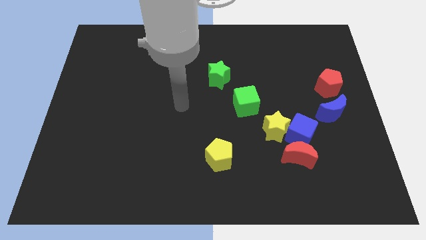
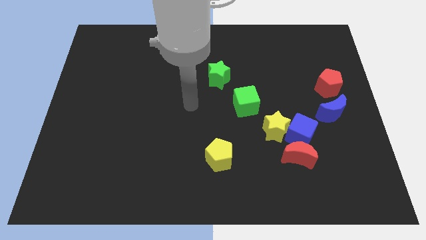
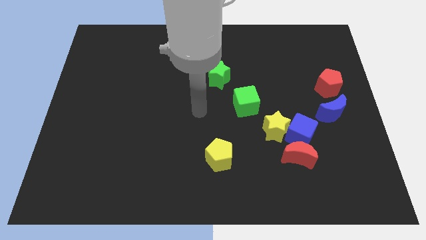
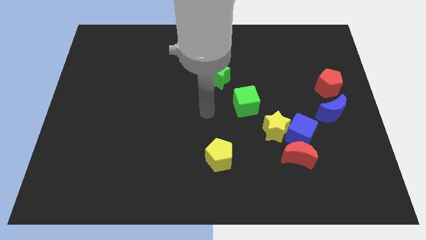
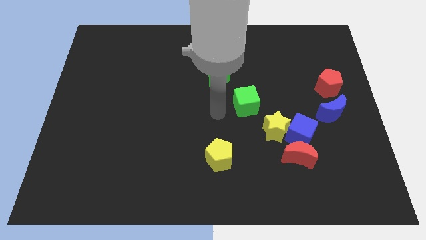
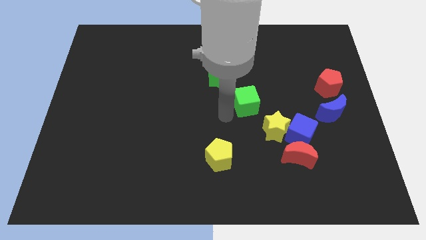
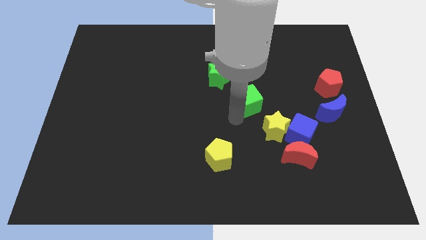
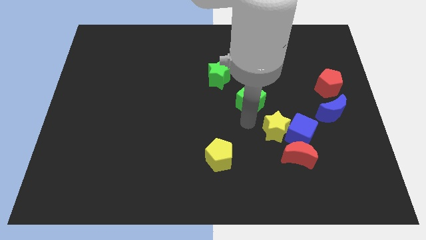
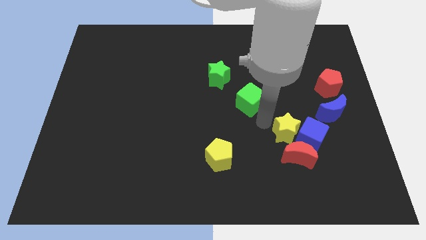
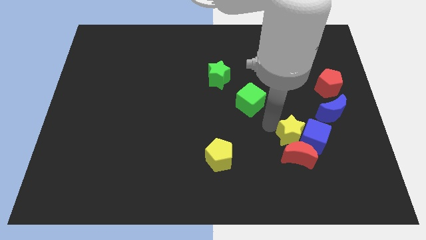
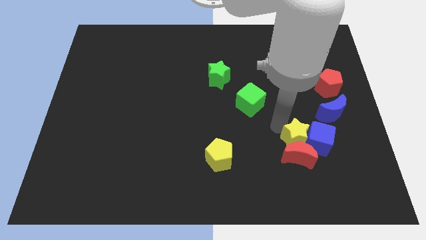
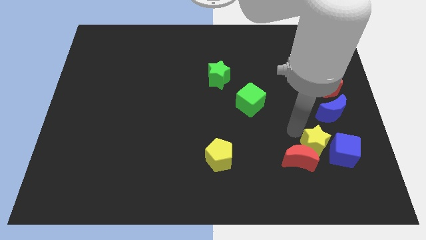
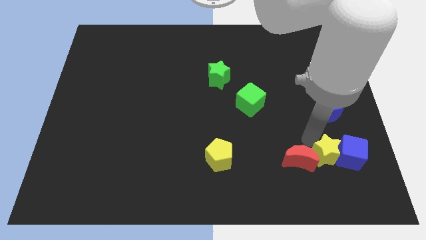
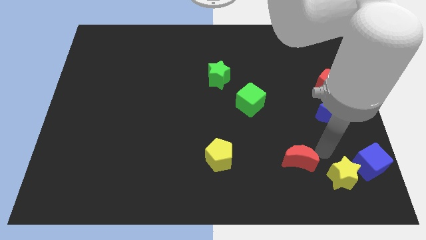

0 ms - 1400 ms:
separate the red moon from the blue cube and yellow star

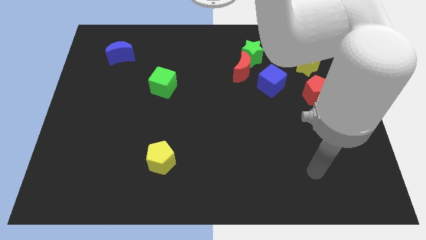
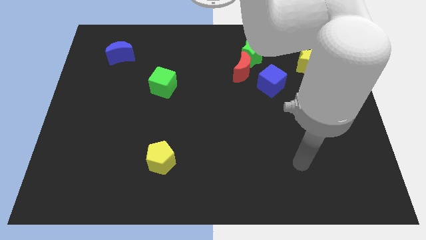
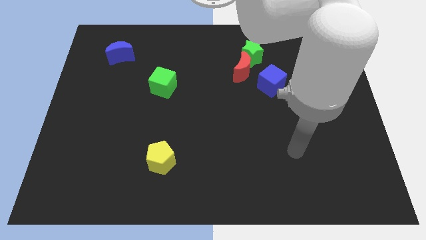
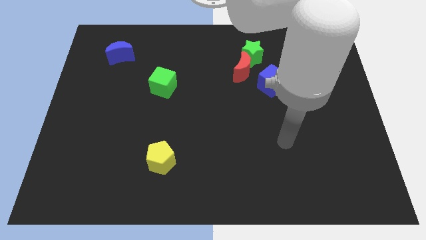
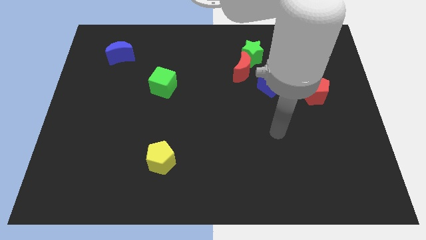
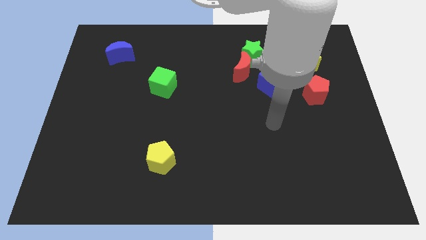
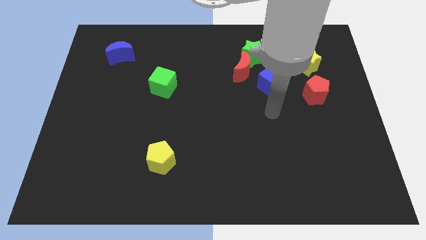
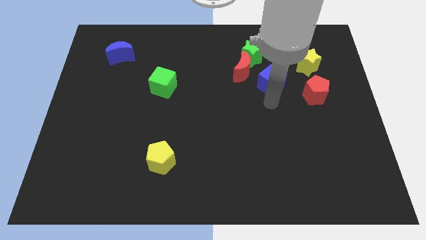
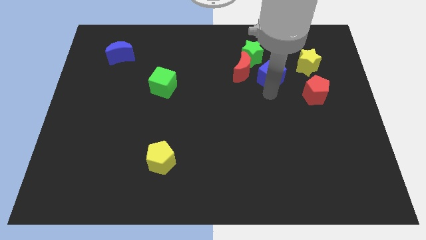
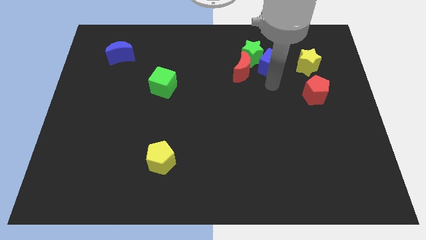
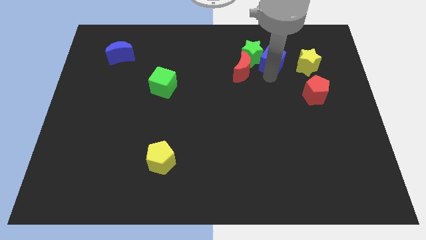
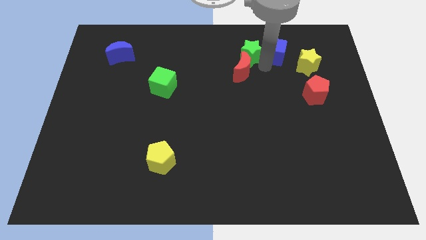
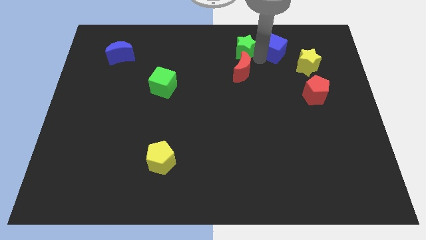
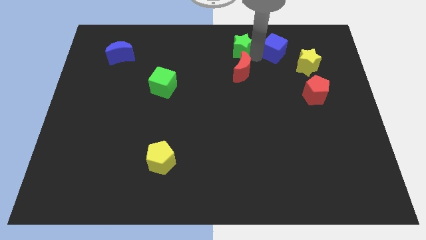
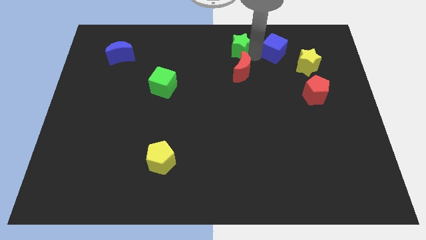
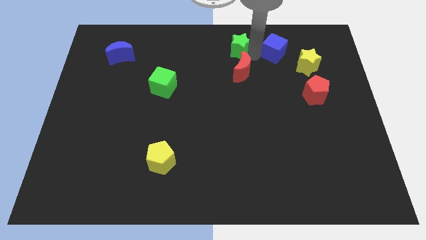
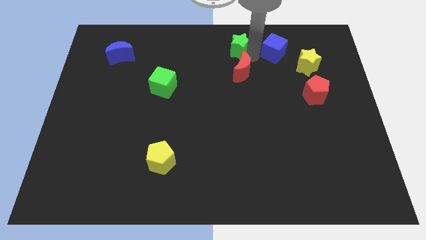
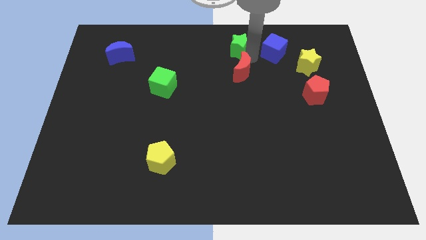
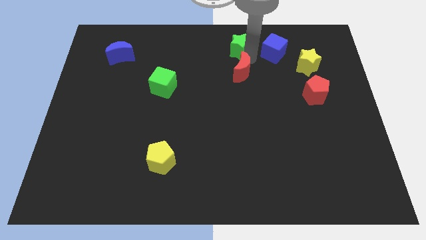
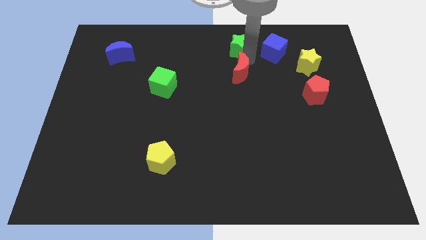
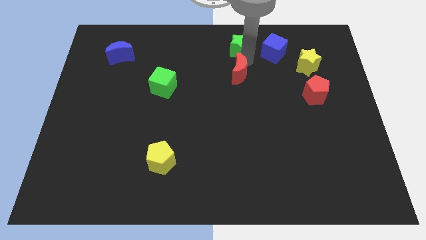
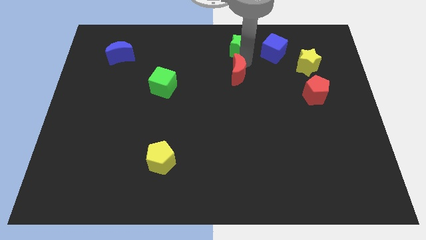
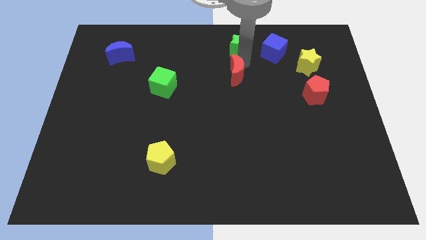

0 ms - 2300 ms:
move the red moon away from the green star and blue cube

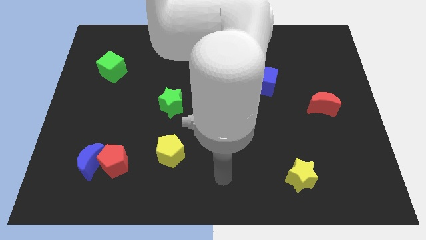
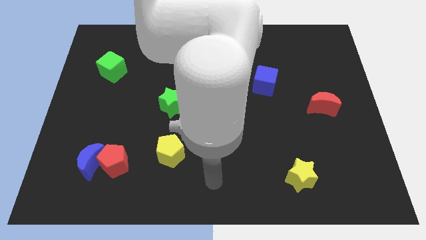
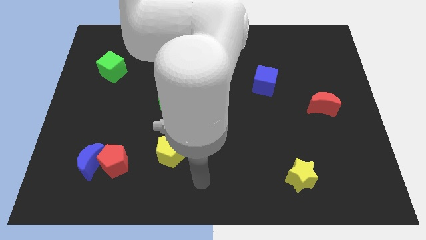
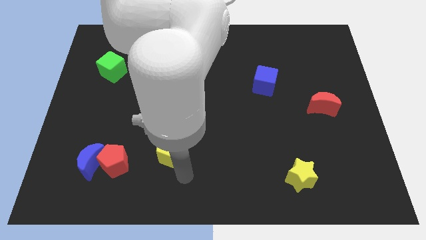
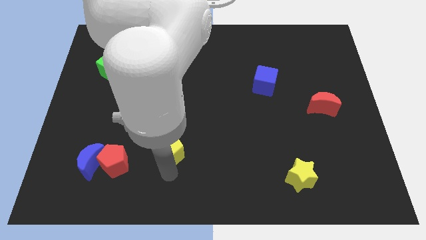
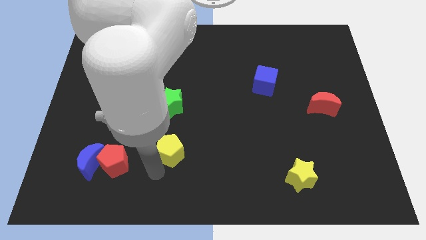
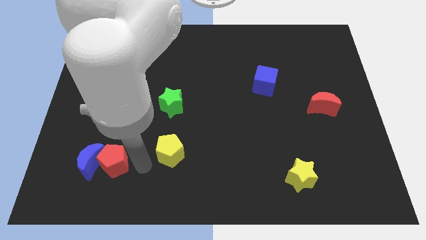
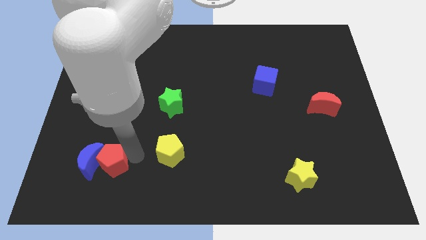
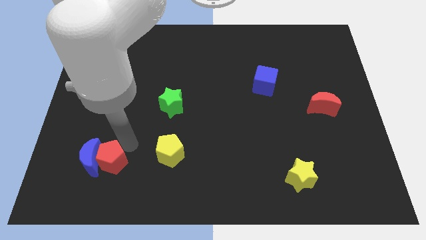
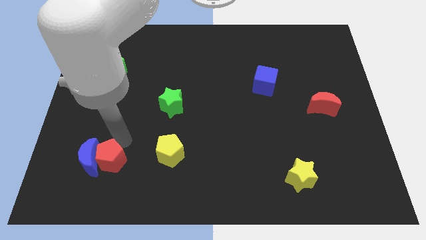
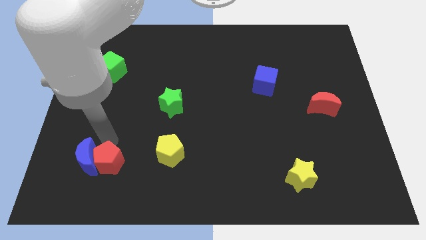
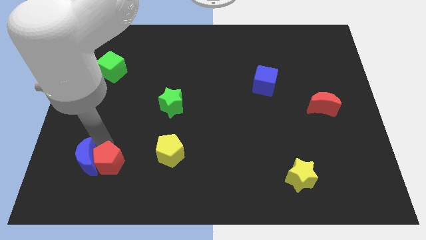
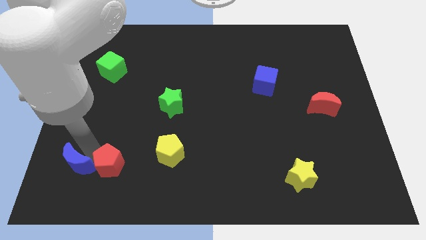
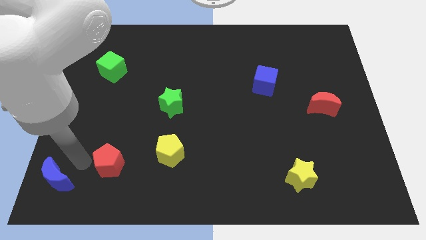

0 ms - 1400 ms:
separate the red pentagon from the blue moon

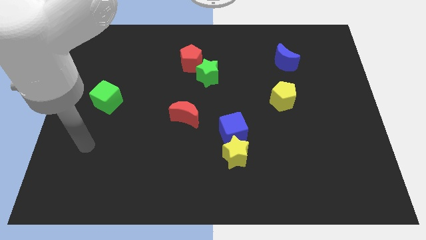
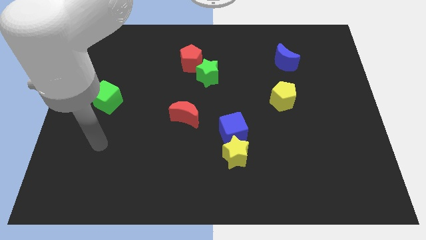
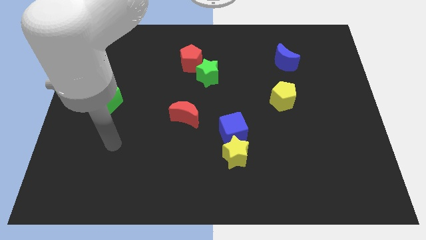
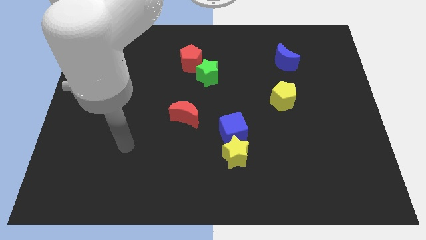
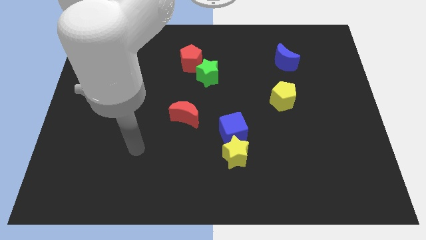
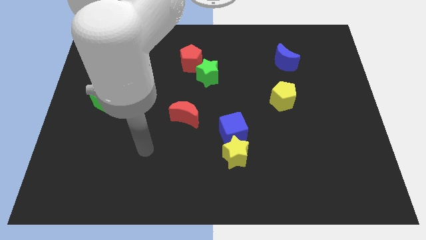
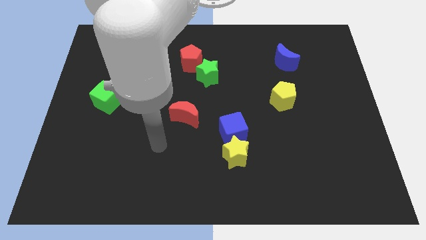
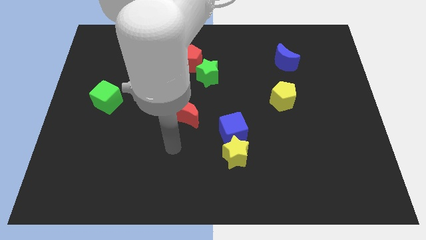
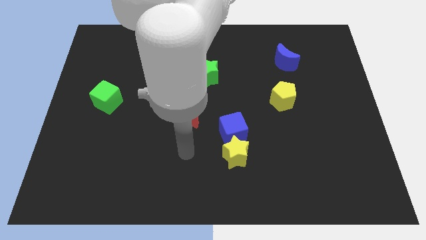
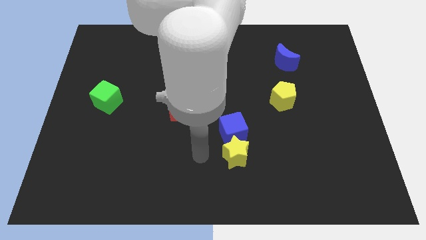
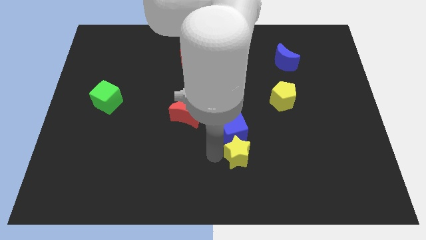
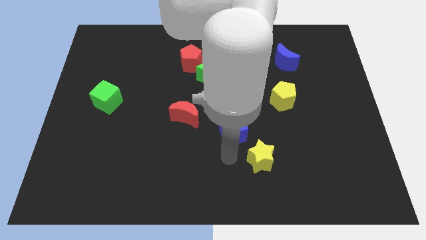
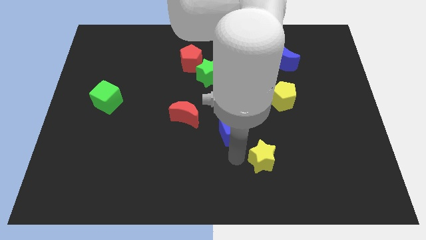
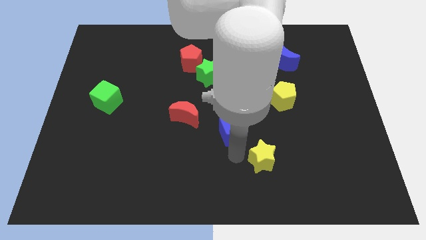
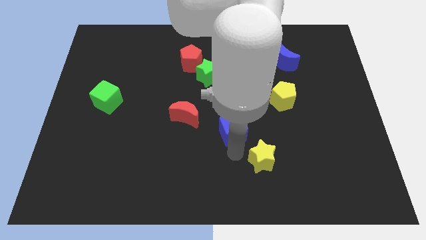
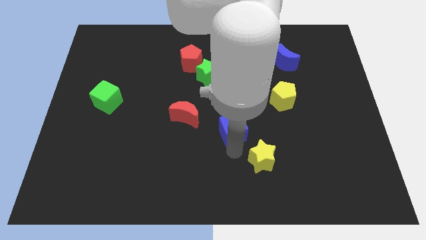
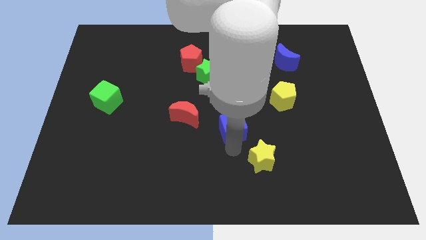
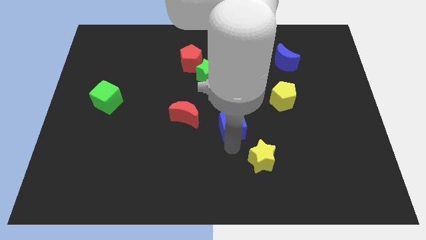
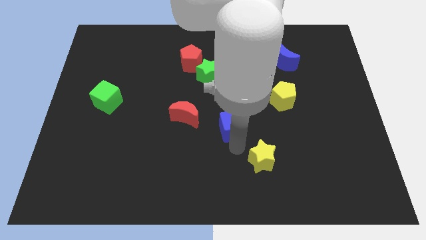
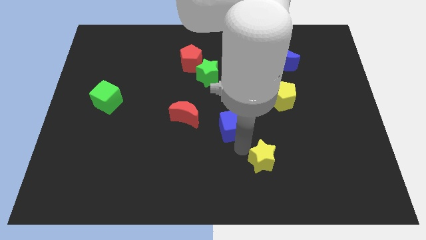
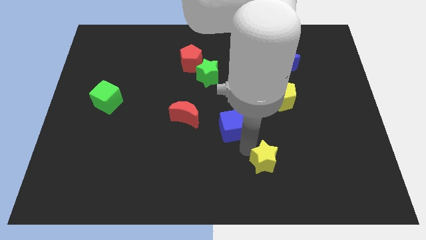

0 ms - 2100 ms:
separate the blue cube from the yellow star

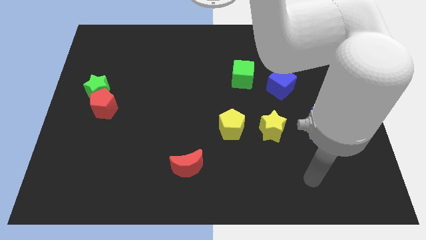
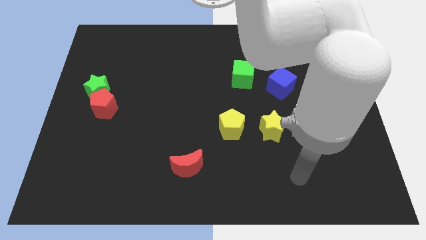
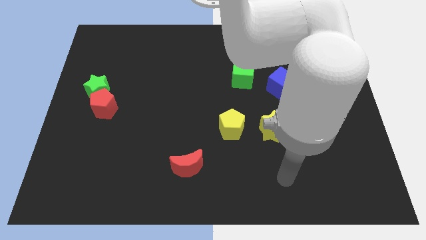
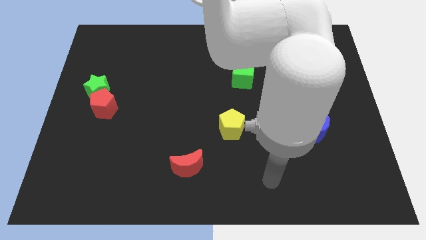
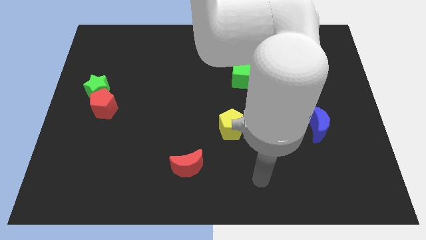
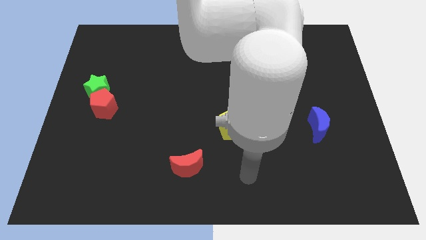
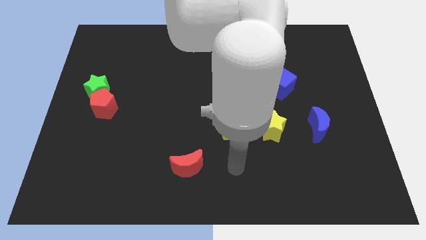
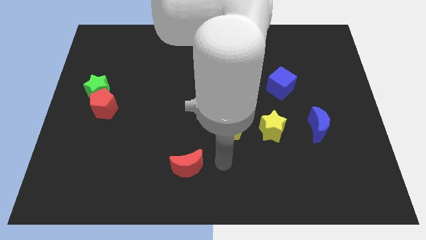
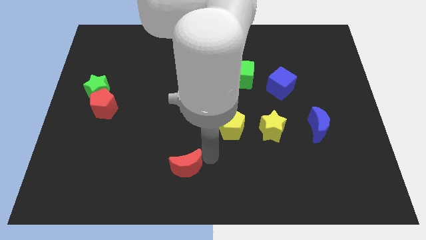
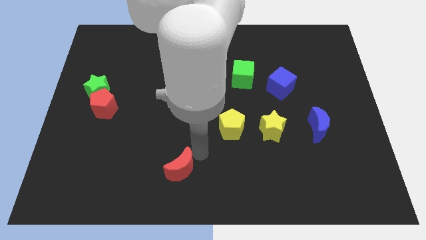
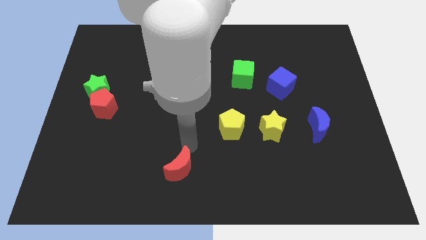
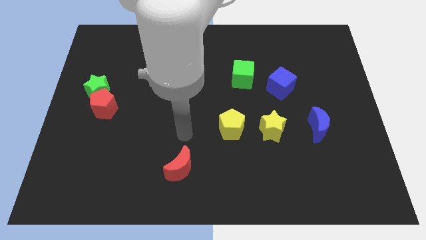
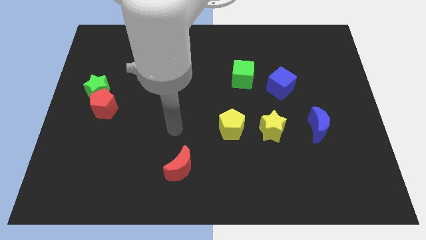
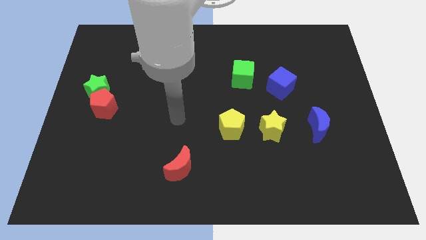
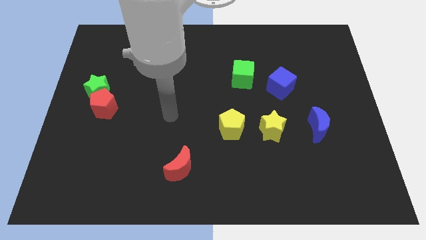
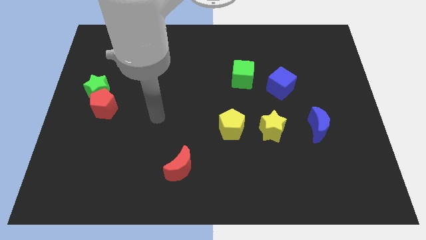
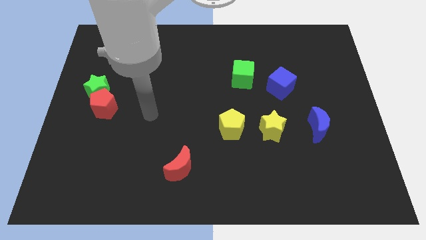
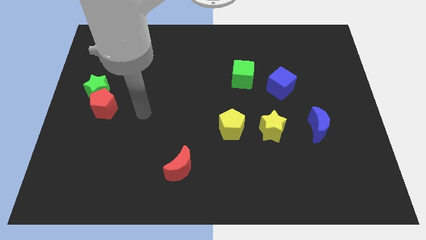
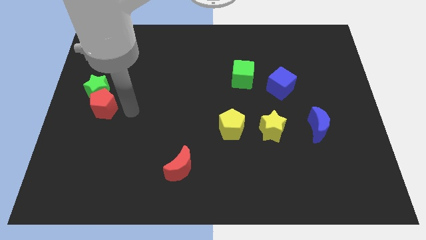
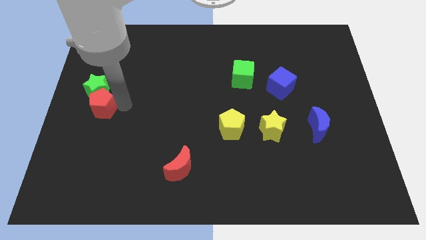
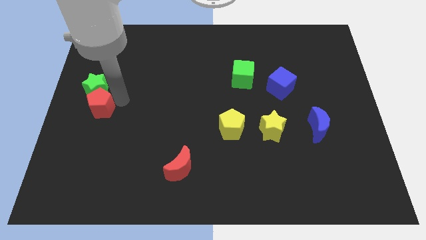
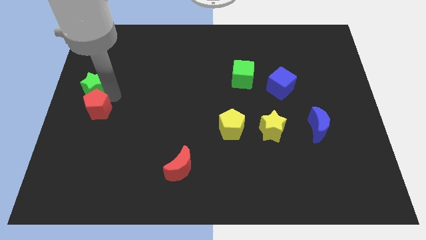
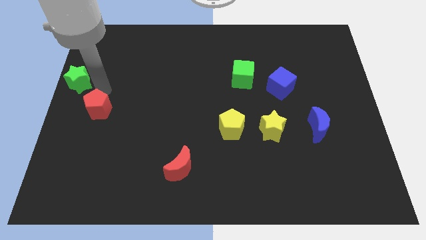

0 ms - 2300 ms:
move the red pentagon away from the green star
